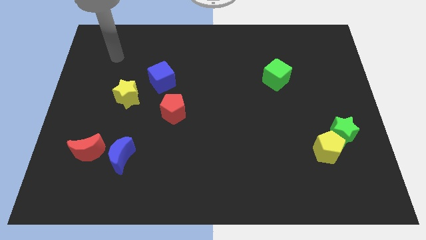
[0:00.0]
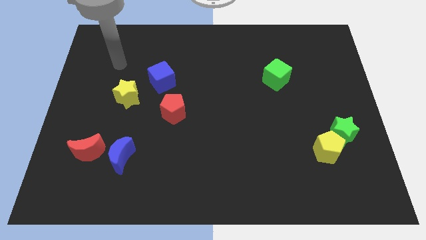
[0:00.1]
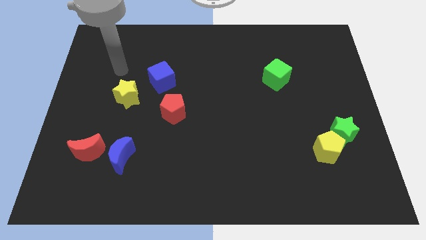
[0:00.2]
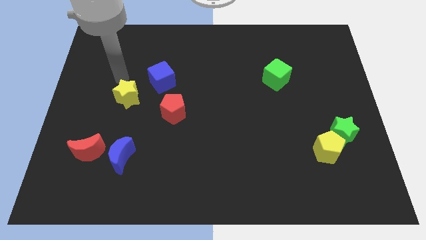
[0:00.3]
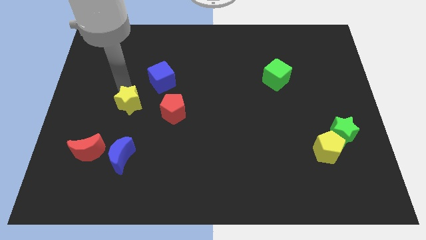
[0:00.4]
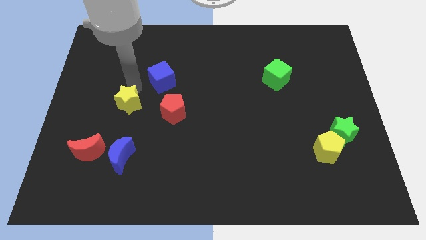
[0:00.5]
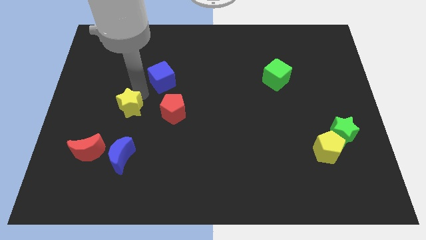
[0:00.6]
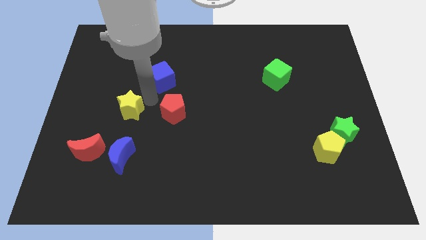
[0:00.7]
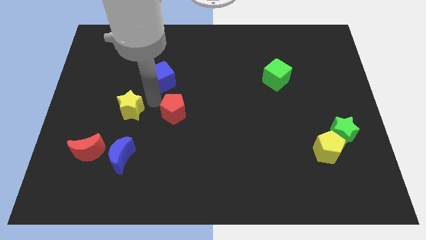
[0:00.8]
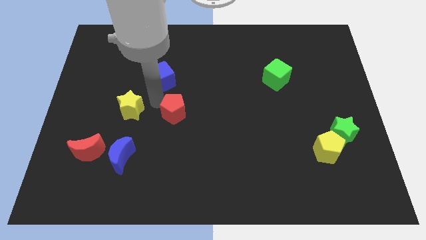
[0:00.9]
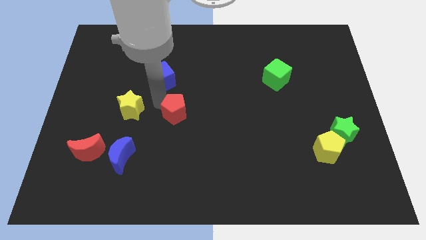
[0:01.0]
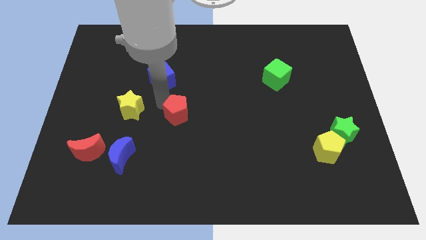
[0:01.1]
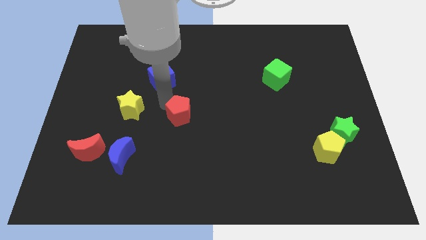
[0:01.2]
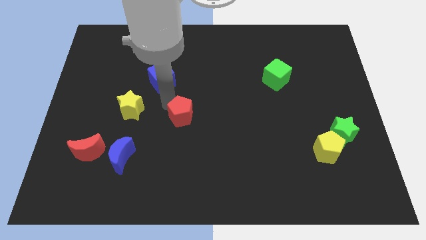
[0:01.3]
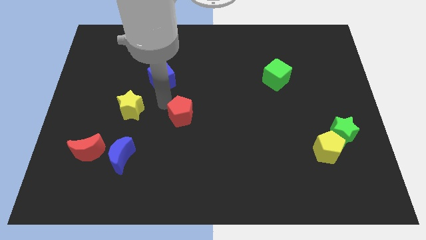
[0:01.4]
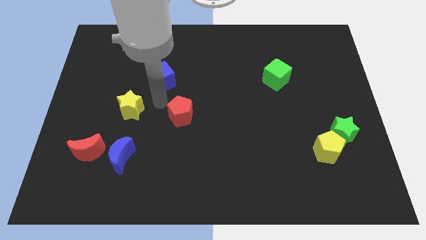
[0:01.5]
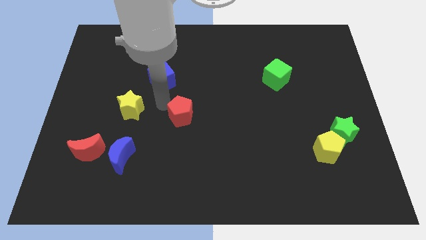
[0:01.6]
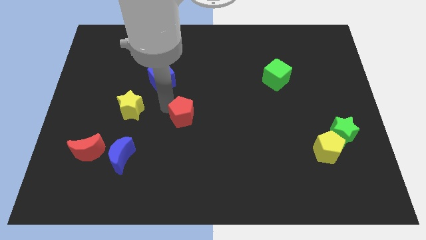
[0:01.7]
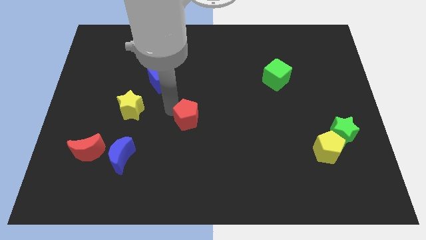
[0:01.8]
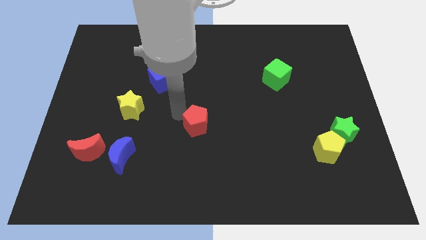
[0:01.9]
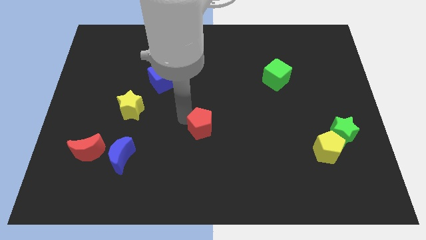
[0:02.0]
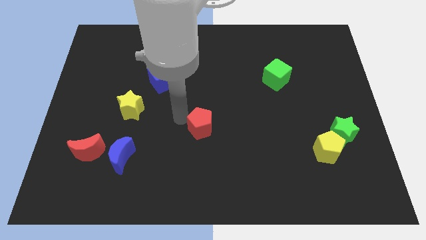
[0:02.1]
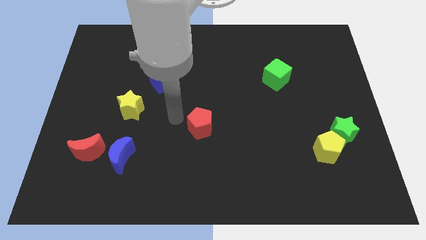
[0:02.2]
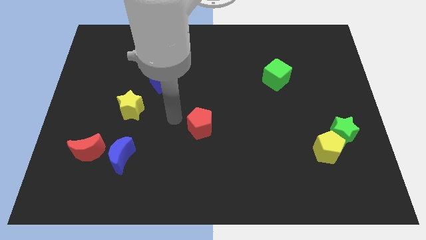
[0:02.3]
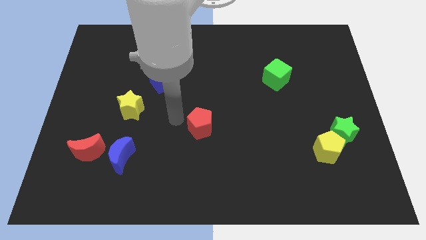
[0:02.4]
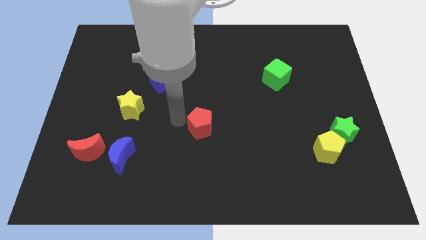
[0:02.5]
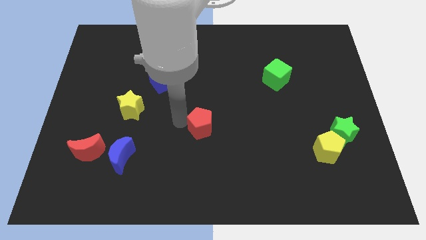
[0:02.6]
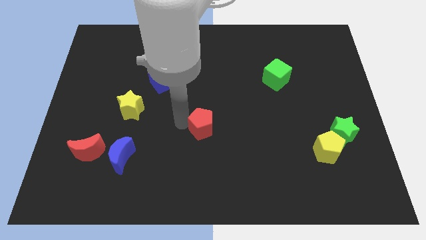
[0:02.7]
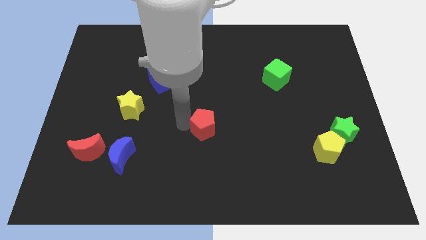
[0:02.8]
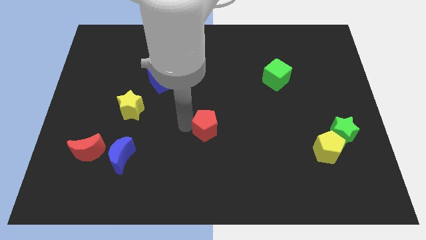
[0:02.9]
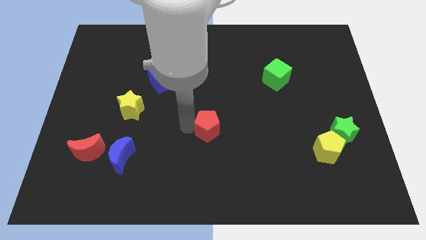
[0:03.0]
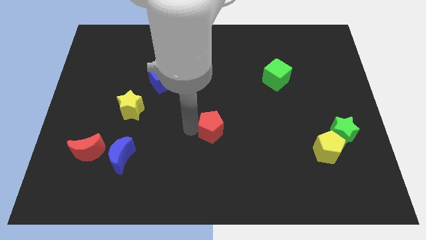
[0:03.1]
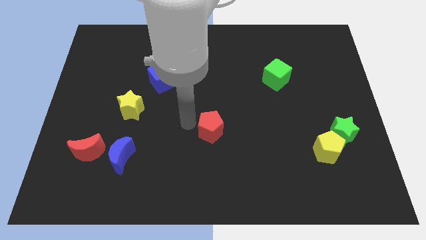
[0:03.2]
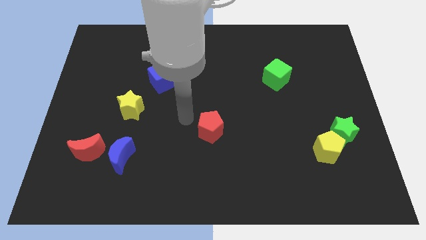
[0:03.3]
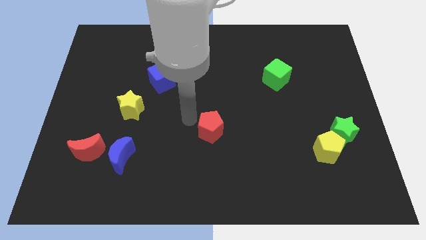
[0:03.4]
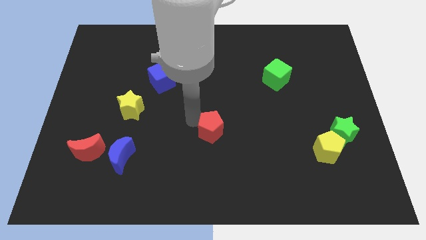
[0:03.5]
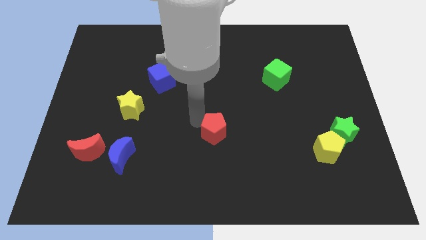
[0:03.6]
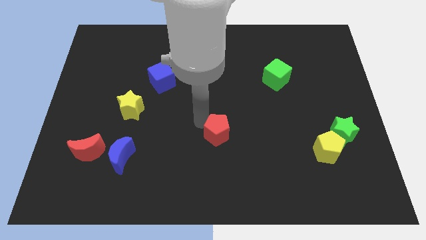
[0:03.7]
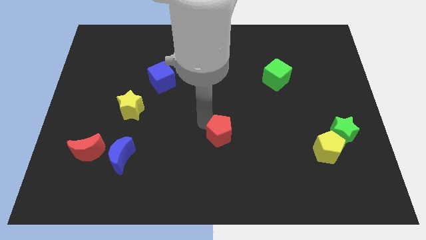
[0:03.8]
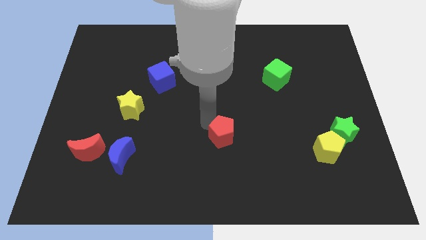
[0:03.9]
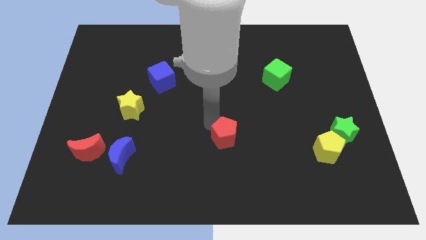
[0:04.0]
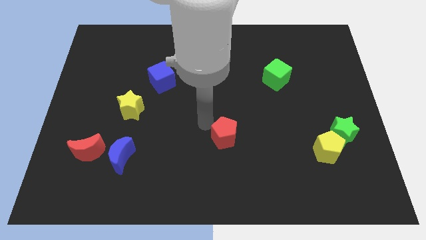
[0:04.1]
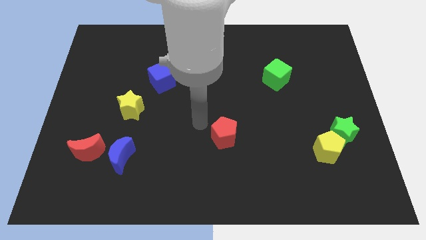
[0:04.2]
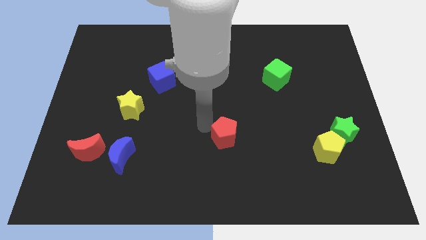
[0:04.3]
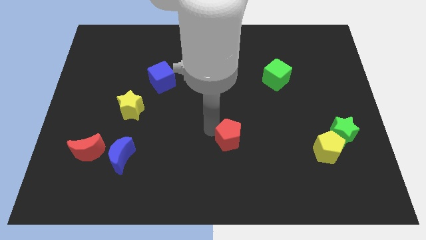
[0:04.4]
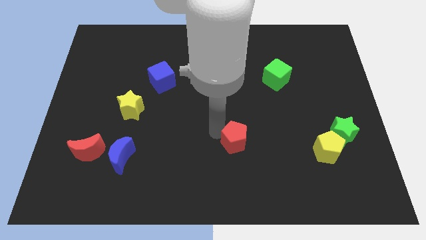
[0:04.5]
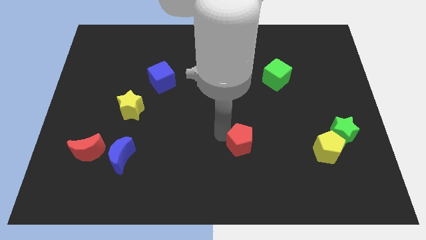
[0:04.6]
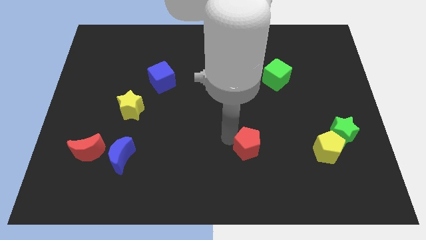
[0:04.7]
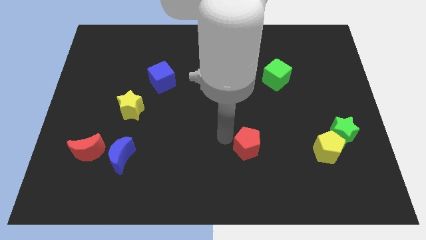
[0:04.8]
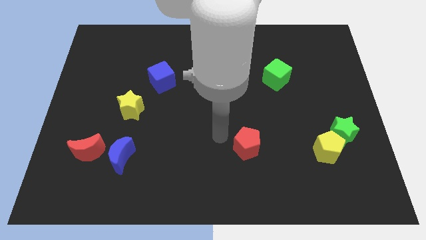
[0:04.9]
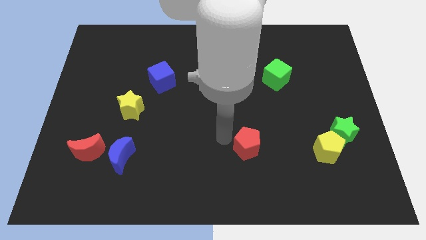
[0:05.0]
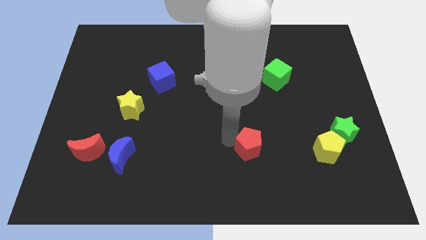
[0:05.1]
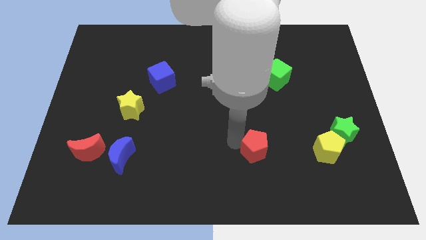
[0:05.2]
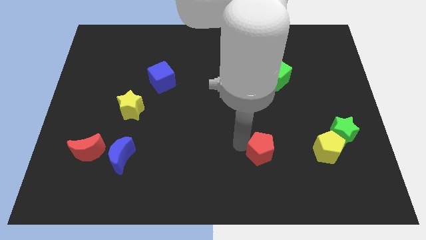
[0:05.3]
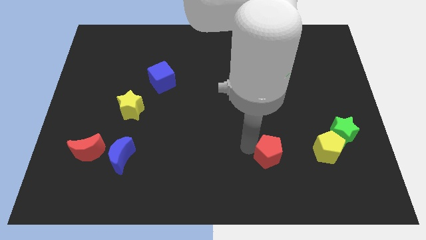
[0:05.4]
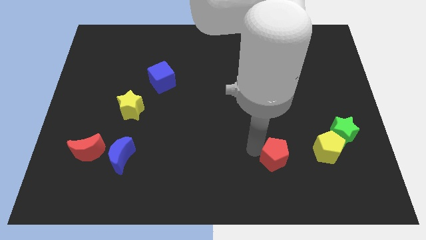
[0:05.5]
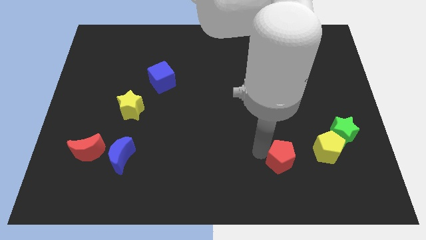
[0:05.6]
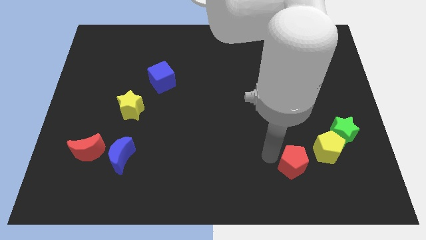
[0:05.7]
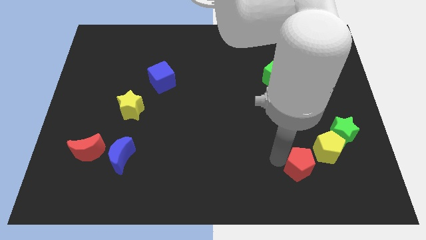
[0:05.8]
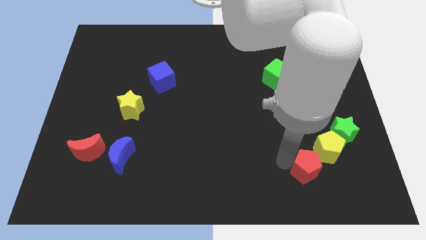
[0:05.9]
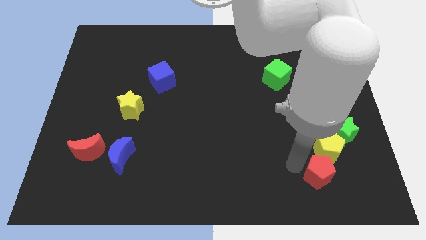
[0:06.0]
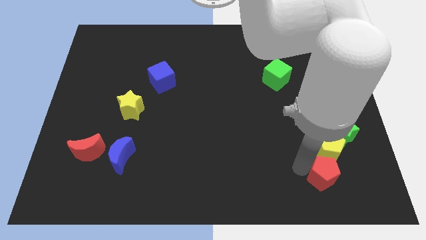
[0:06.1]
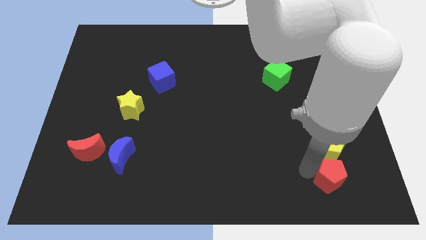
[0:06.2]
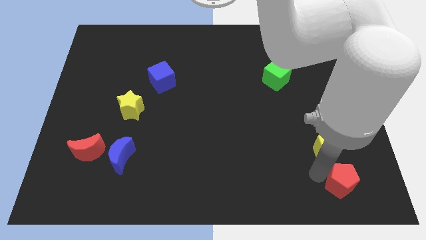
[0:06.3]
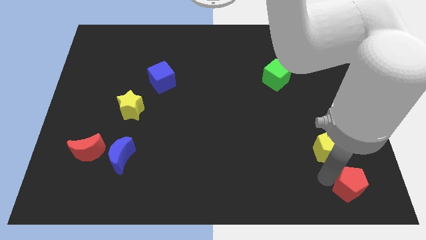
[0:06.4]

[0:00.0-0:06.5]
slide the red pentagon to the bottom right

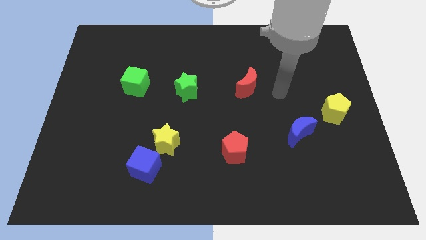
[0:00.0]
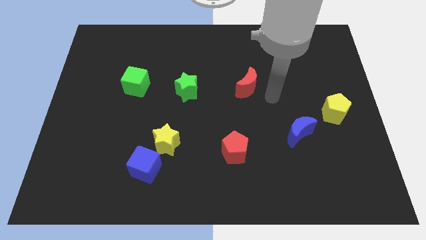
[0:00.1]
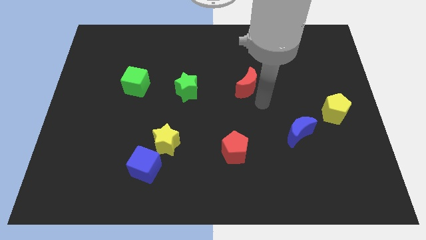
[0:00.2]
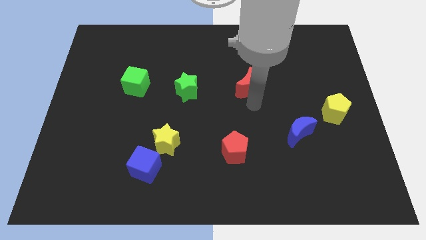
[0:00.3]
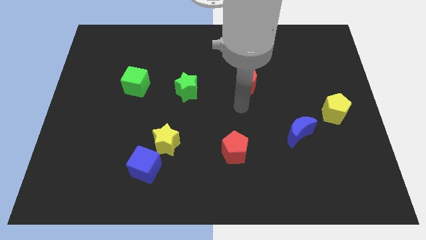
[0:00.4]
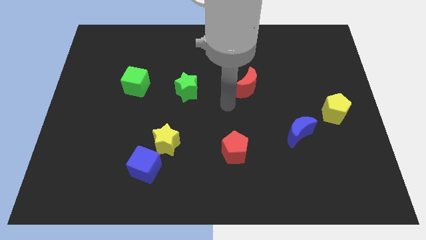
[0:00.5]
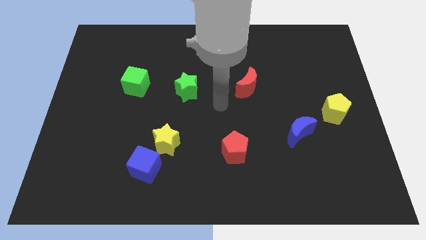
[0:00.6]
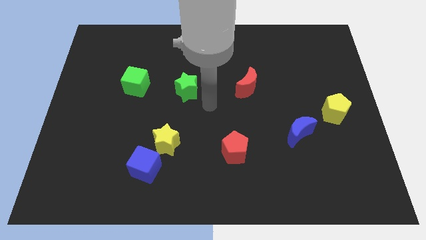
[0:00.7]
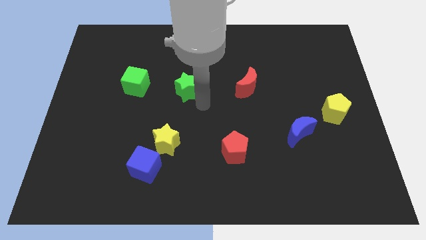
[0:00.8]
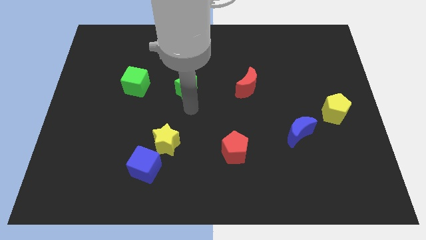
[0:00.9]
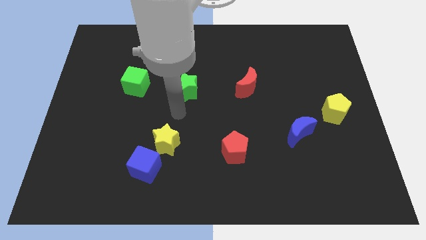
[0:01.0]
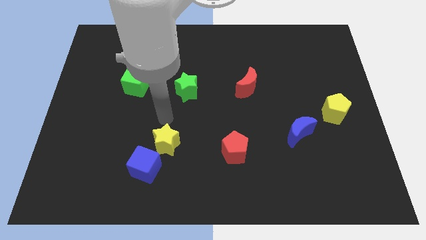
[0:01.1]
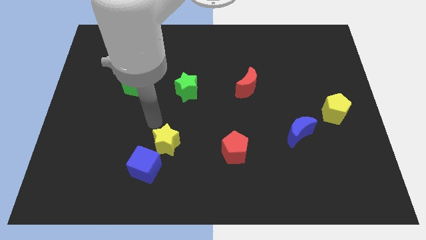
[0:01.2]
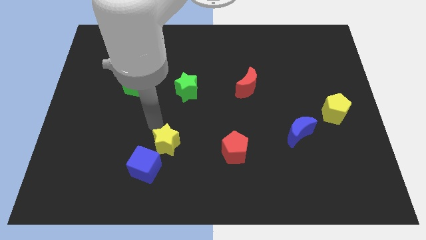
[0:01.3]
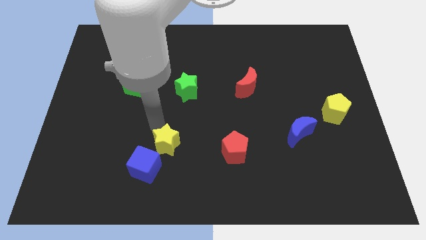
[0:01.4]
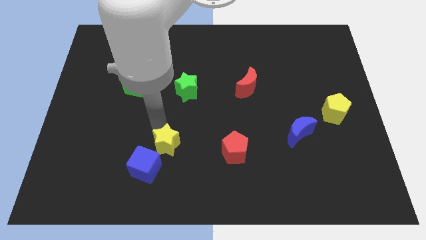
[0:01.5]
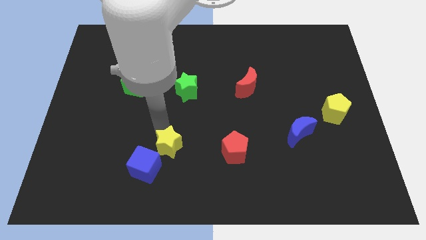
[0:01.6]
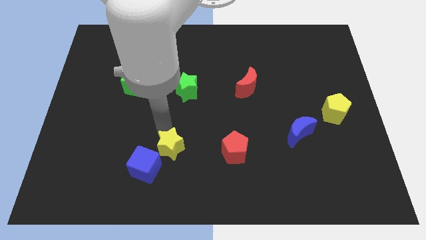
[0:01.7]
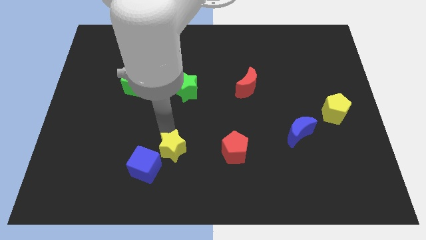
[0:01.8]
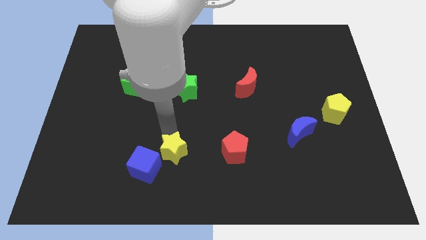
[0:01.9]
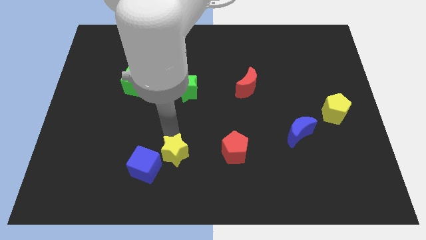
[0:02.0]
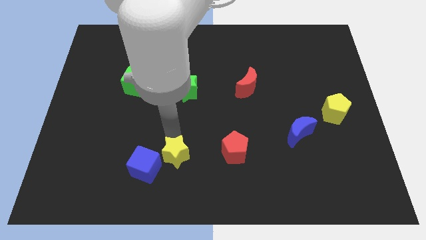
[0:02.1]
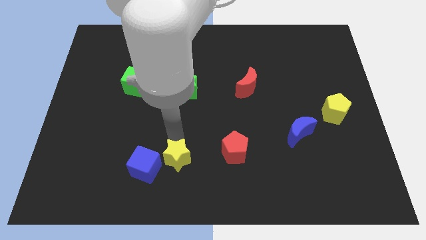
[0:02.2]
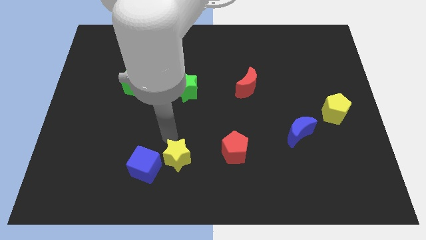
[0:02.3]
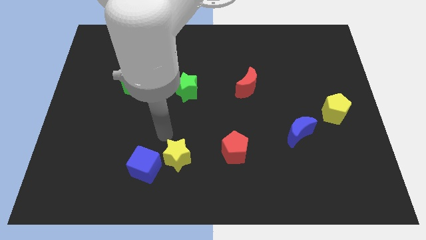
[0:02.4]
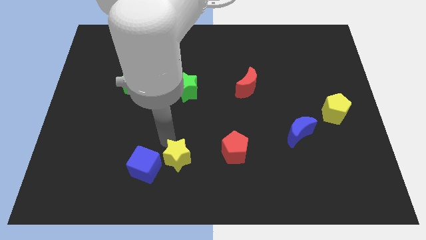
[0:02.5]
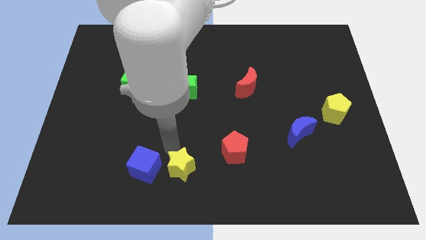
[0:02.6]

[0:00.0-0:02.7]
move the yellow star to the bottom side
